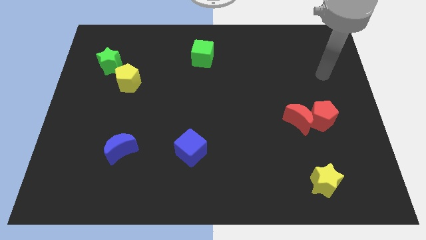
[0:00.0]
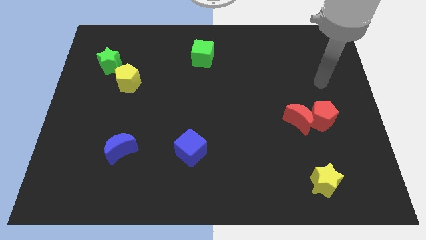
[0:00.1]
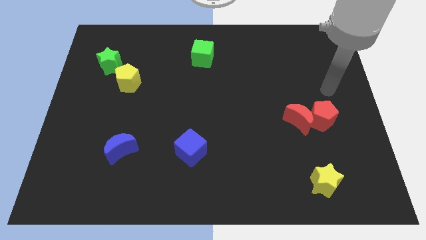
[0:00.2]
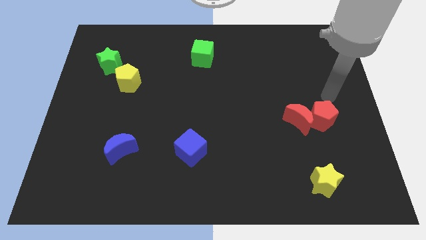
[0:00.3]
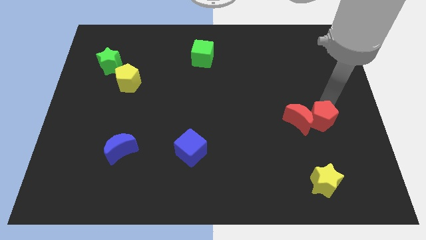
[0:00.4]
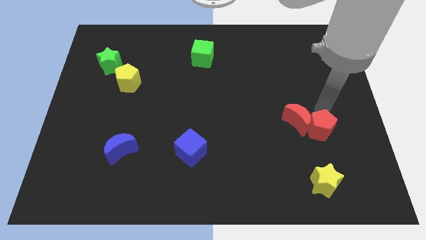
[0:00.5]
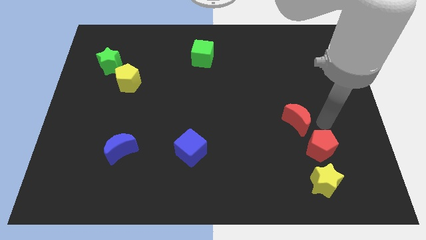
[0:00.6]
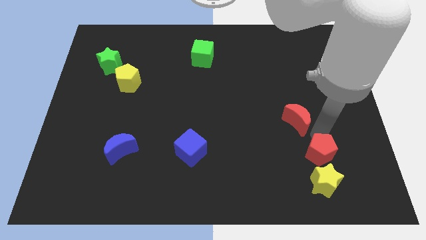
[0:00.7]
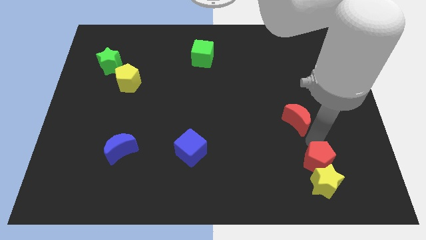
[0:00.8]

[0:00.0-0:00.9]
pull the red moon apart from the red pentagon

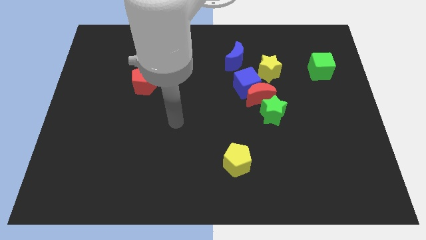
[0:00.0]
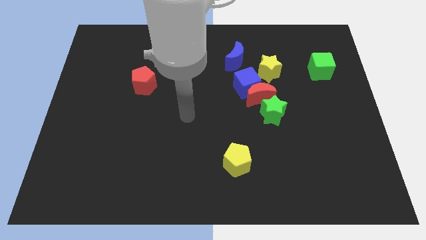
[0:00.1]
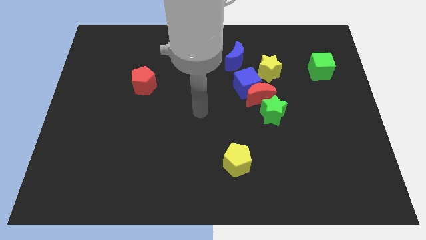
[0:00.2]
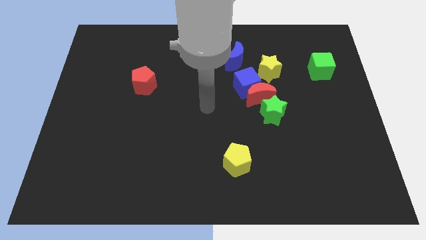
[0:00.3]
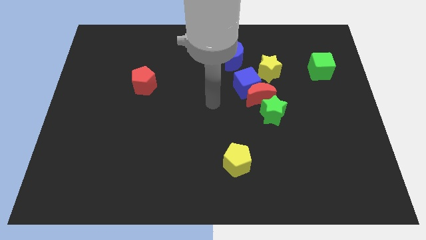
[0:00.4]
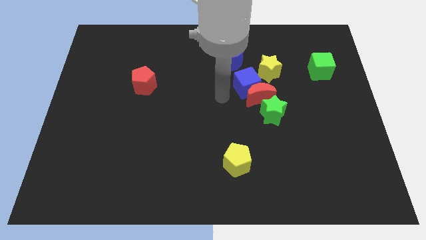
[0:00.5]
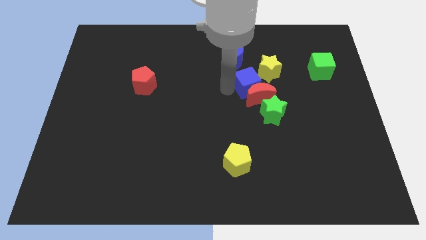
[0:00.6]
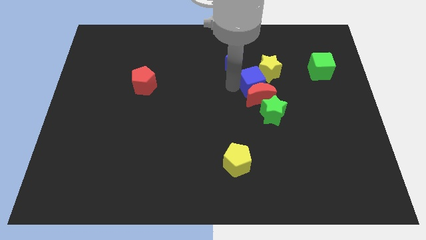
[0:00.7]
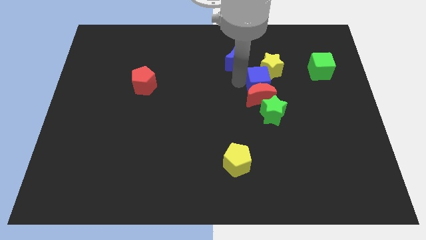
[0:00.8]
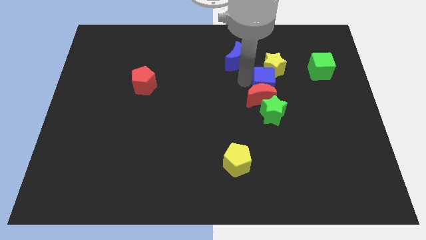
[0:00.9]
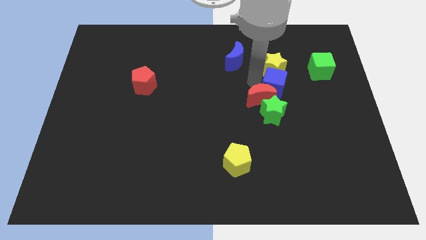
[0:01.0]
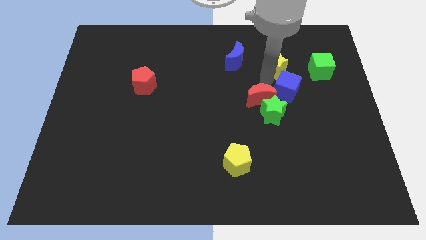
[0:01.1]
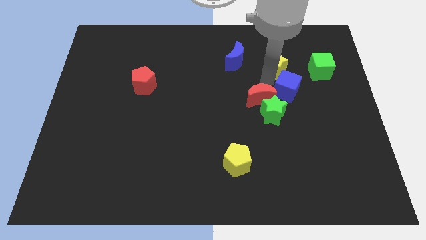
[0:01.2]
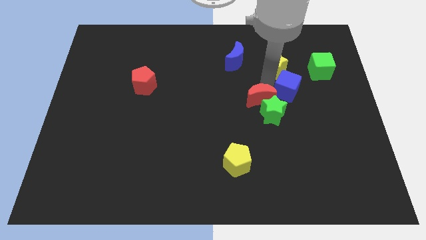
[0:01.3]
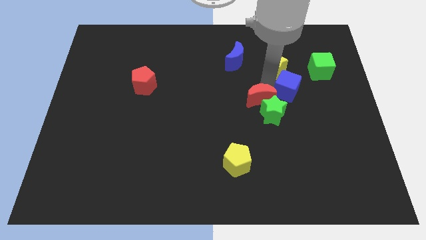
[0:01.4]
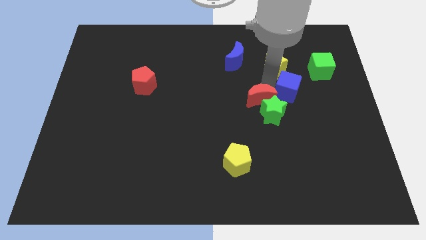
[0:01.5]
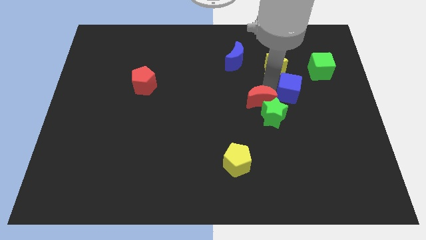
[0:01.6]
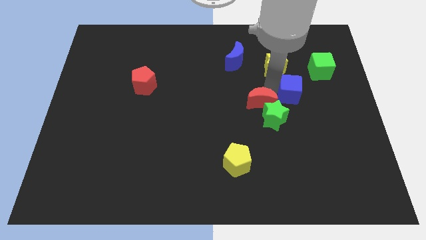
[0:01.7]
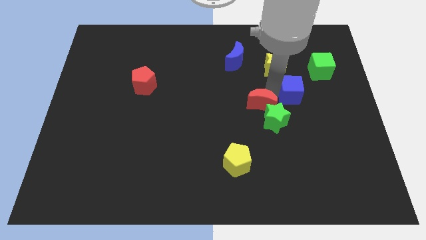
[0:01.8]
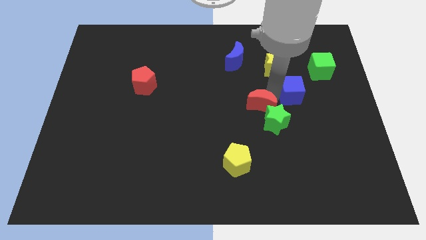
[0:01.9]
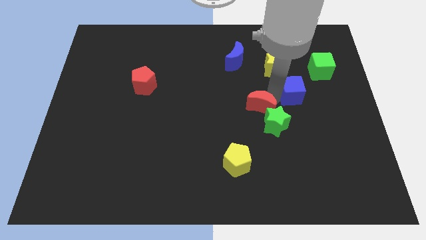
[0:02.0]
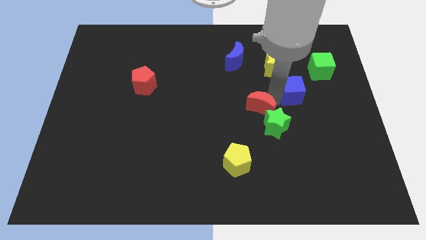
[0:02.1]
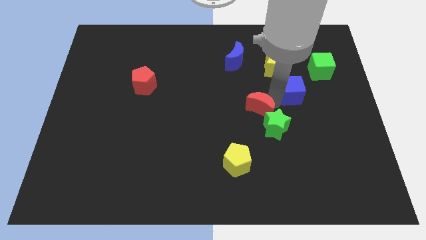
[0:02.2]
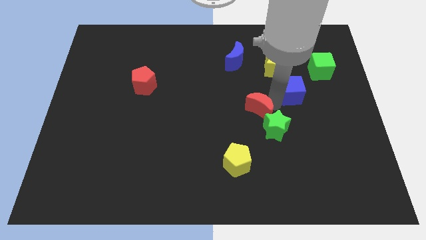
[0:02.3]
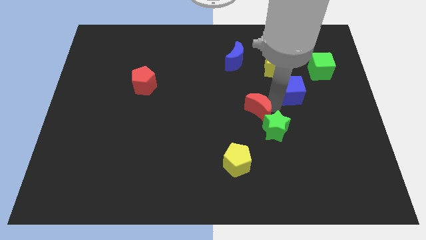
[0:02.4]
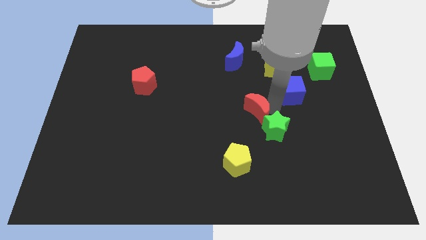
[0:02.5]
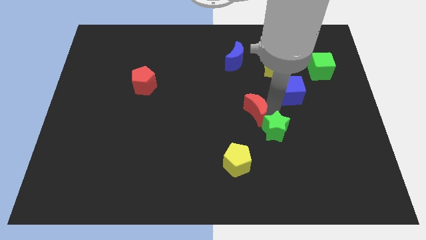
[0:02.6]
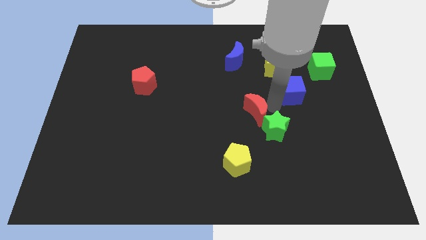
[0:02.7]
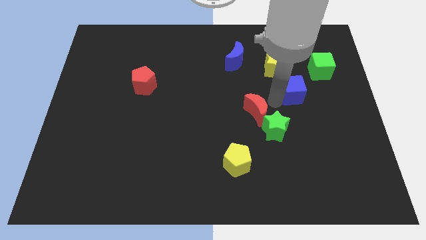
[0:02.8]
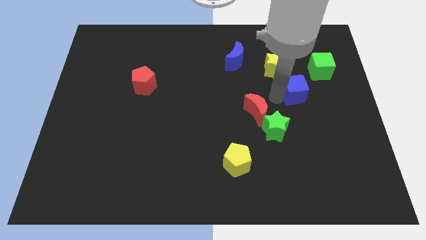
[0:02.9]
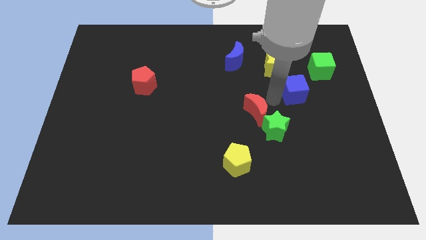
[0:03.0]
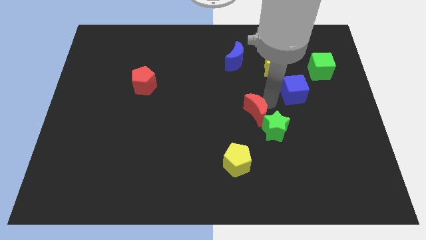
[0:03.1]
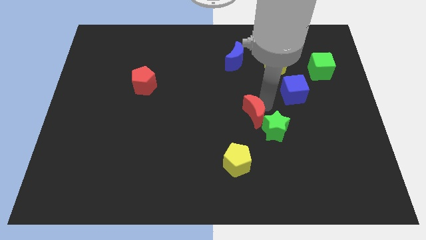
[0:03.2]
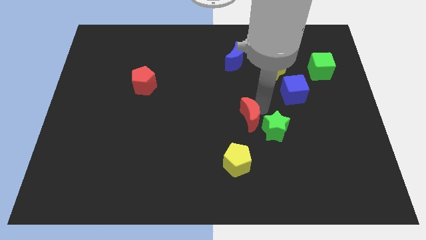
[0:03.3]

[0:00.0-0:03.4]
pull the red moon apart from the group

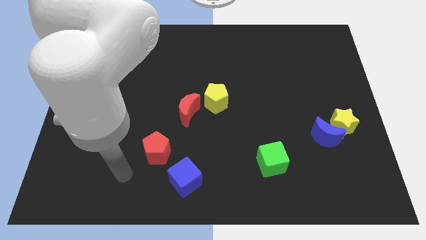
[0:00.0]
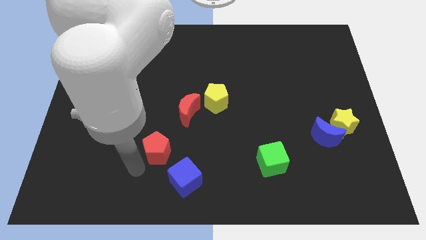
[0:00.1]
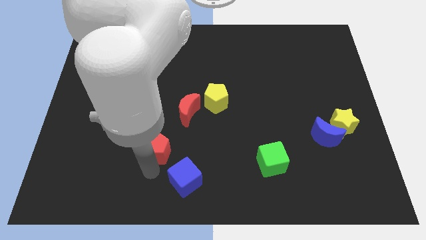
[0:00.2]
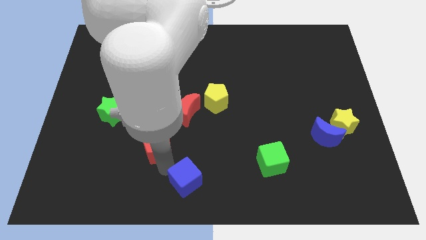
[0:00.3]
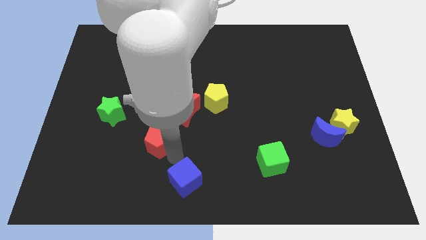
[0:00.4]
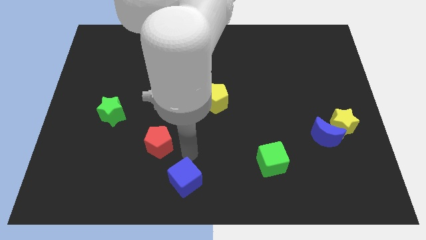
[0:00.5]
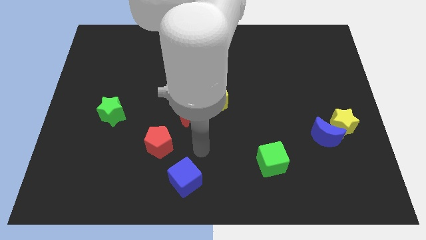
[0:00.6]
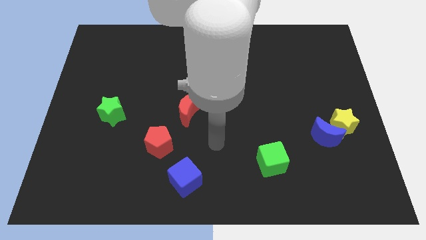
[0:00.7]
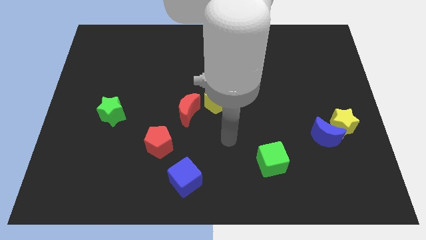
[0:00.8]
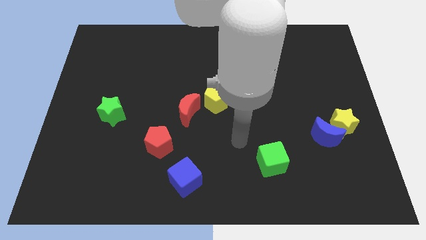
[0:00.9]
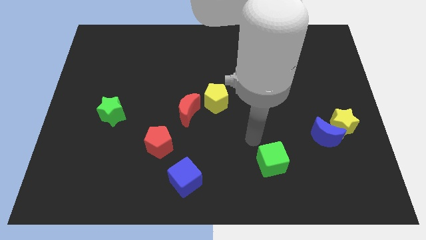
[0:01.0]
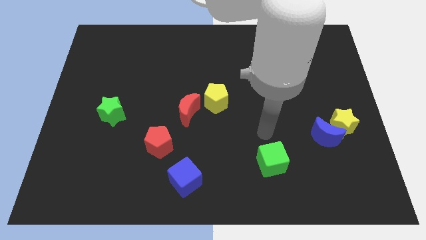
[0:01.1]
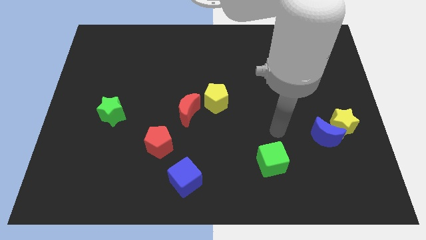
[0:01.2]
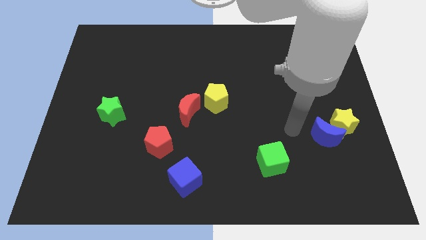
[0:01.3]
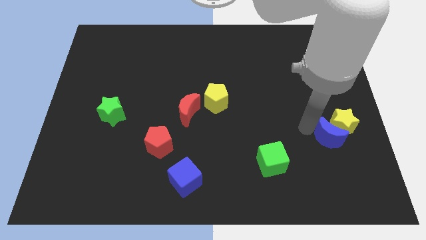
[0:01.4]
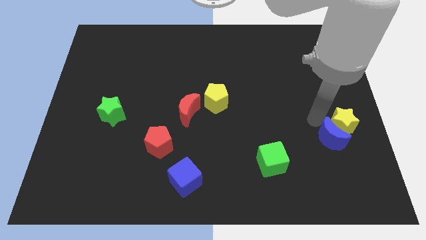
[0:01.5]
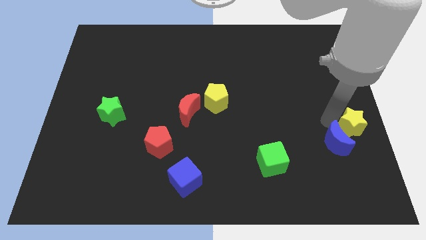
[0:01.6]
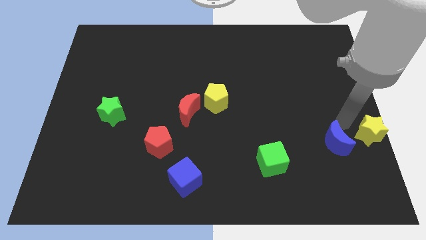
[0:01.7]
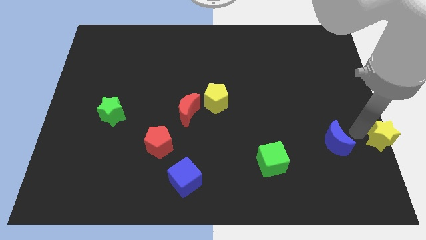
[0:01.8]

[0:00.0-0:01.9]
separate the blue moon from the yellow star

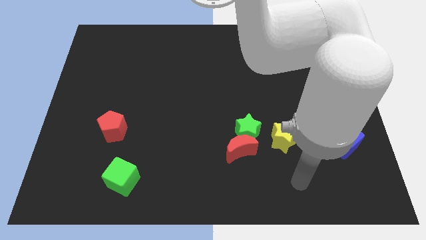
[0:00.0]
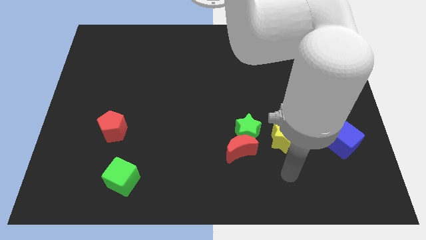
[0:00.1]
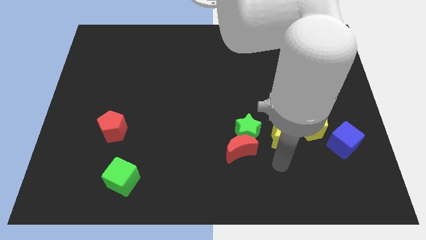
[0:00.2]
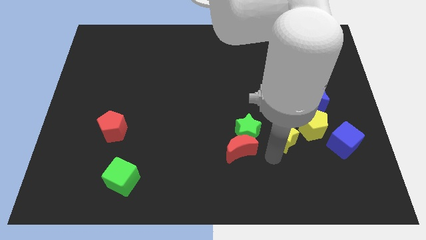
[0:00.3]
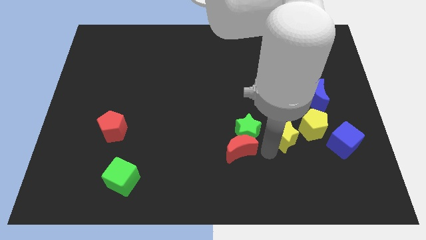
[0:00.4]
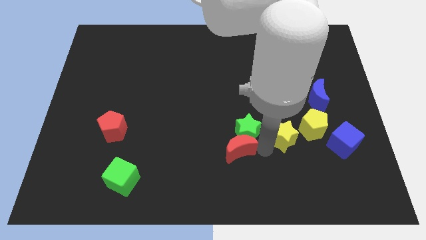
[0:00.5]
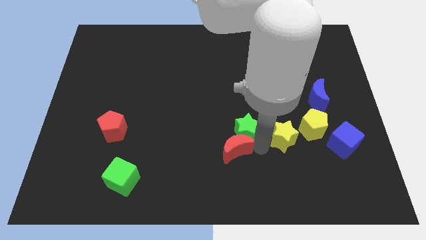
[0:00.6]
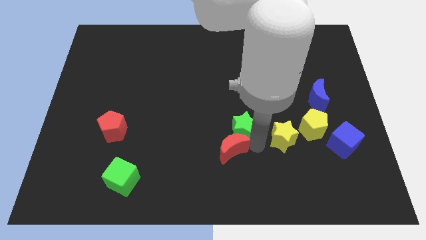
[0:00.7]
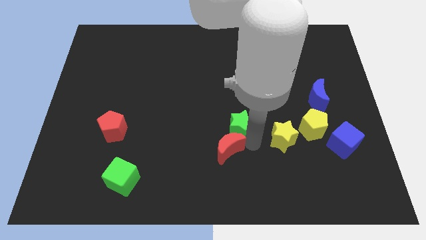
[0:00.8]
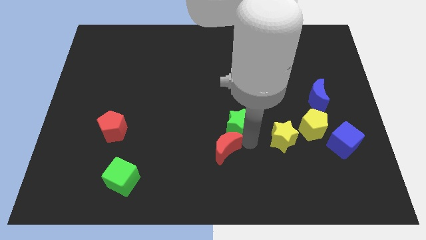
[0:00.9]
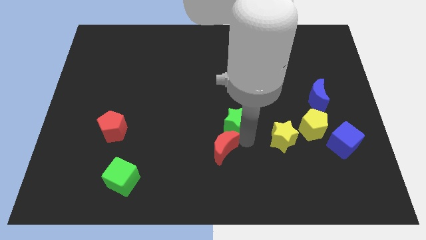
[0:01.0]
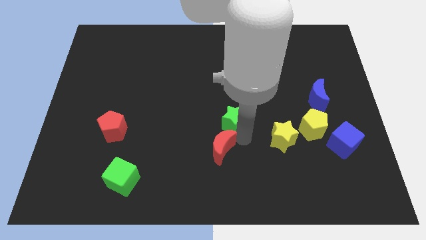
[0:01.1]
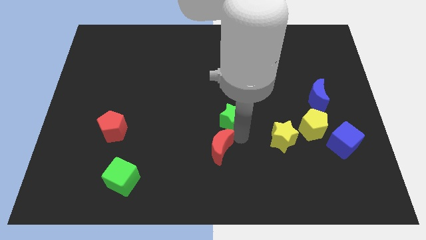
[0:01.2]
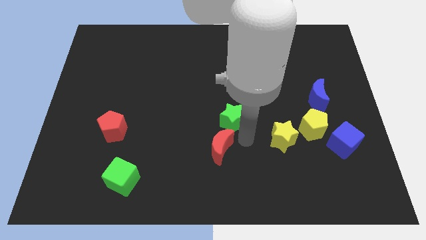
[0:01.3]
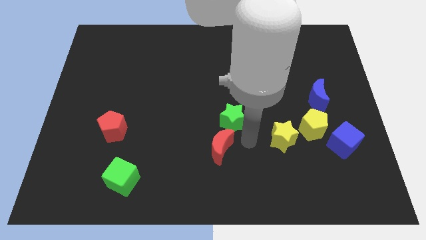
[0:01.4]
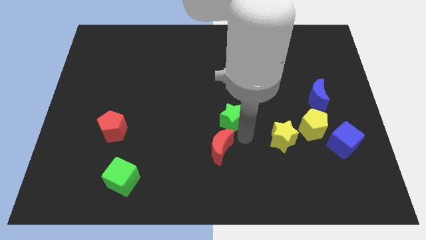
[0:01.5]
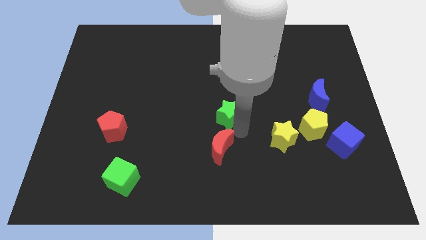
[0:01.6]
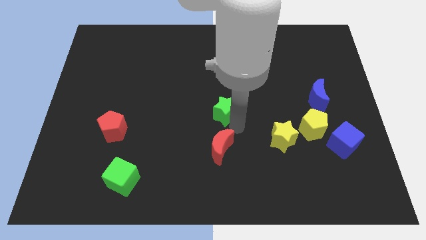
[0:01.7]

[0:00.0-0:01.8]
move the green star away from the red moon and yellow star

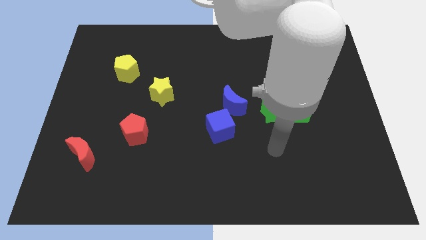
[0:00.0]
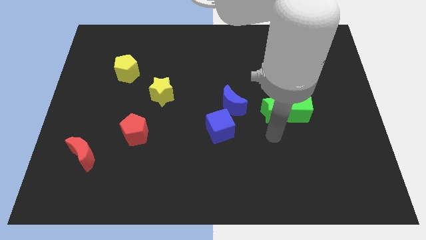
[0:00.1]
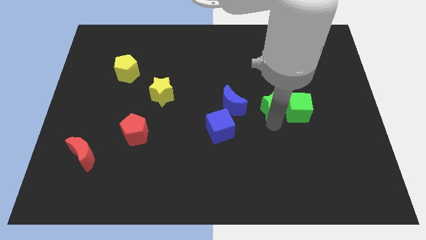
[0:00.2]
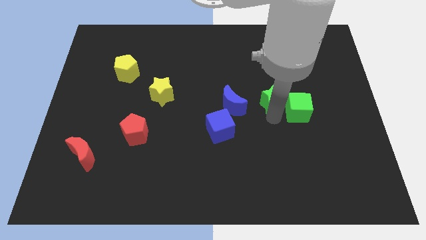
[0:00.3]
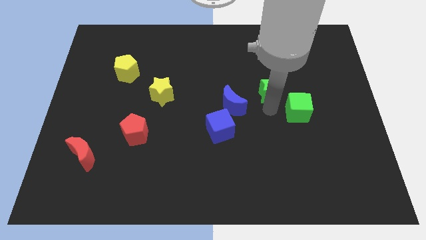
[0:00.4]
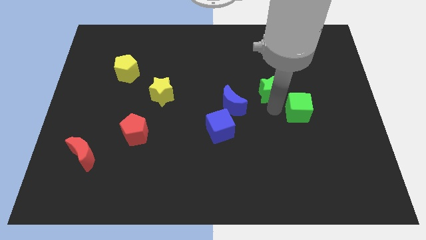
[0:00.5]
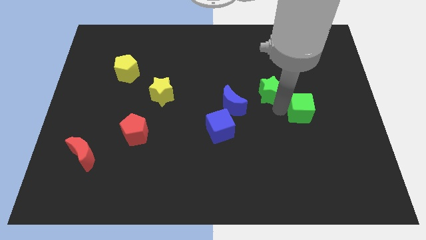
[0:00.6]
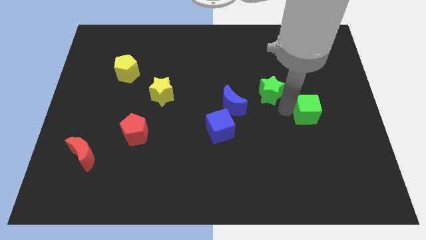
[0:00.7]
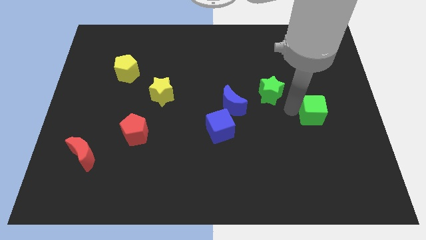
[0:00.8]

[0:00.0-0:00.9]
separate the green cube from the green star

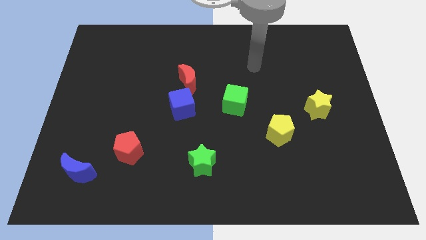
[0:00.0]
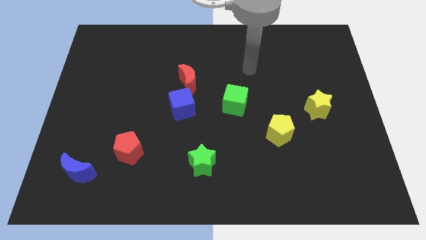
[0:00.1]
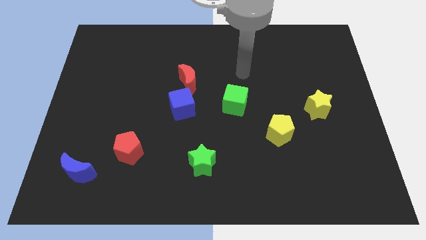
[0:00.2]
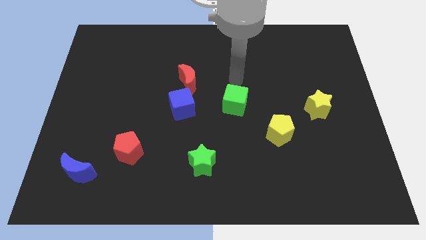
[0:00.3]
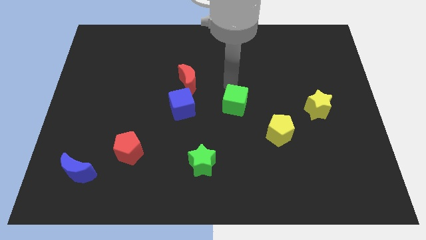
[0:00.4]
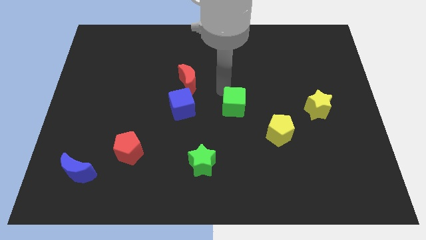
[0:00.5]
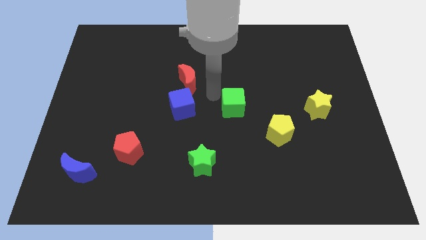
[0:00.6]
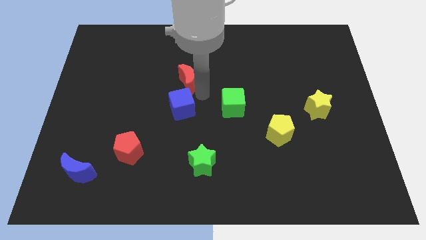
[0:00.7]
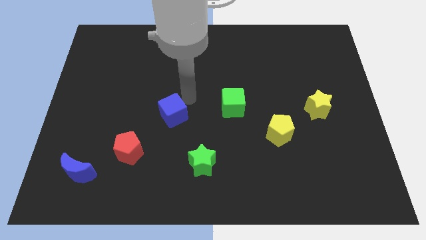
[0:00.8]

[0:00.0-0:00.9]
move the red moon away from the blue cube
